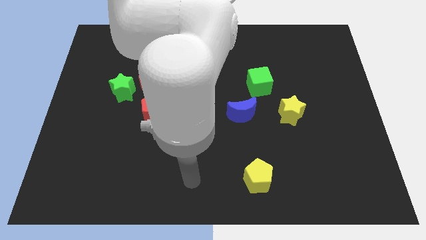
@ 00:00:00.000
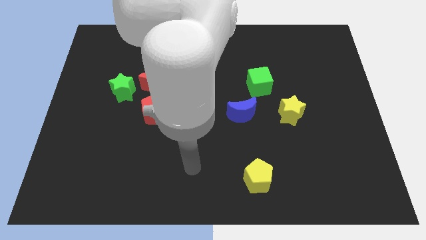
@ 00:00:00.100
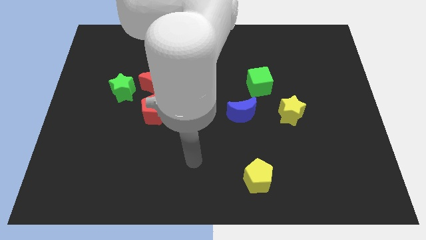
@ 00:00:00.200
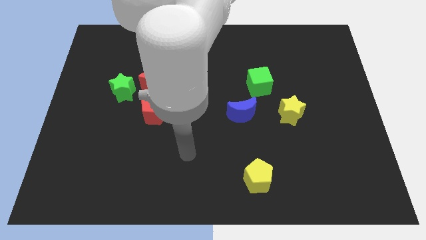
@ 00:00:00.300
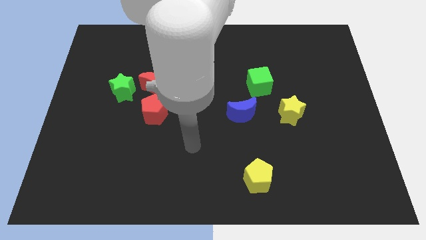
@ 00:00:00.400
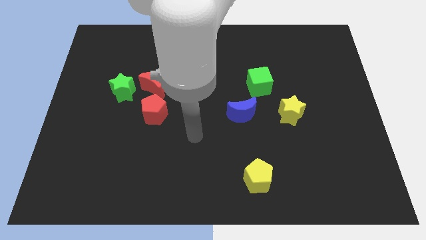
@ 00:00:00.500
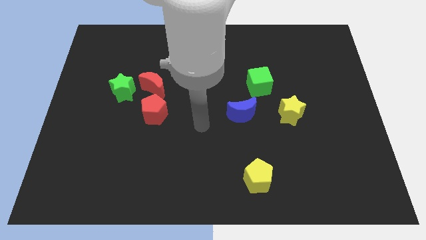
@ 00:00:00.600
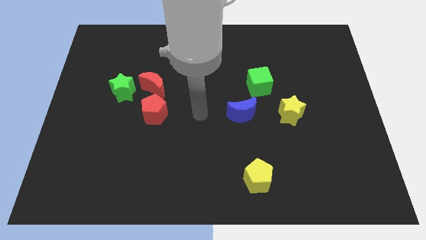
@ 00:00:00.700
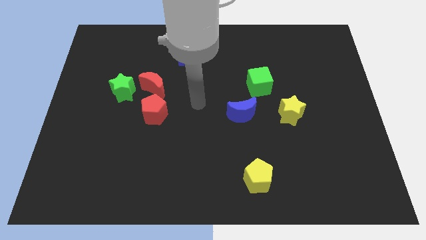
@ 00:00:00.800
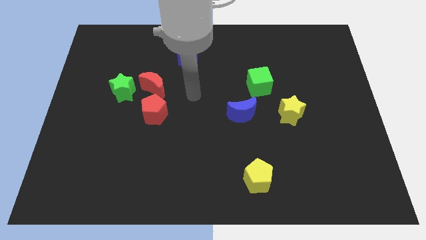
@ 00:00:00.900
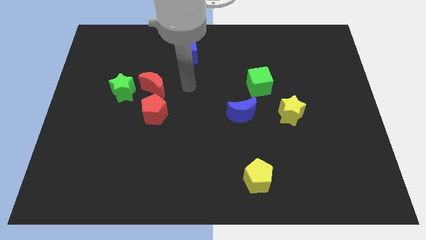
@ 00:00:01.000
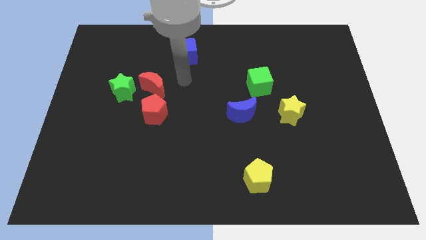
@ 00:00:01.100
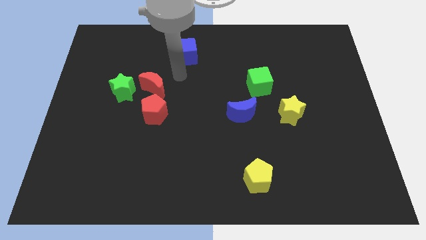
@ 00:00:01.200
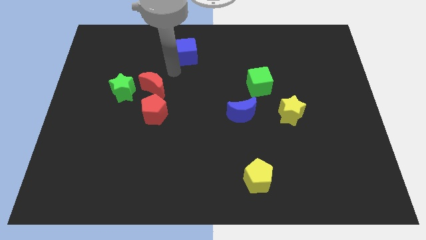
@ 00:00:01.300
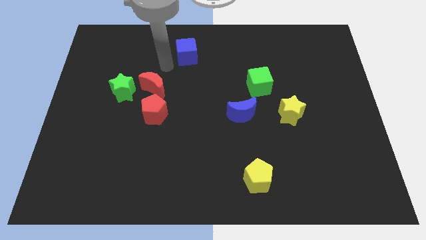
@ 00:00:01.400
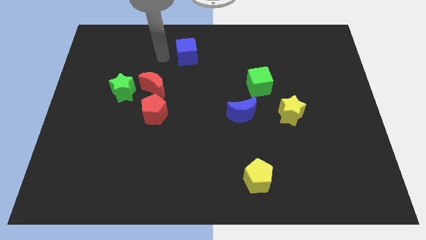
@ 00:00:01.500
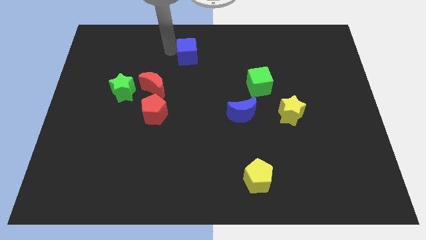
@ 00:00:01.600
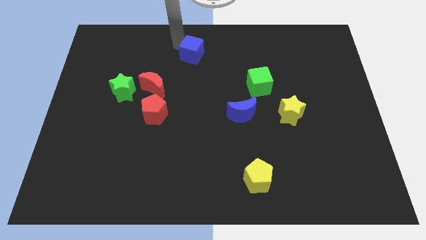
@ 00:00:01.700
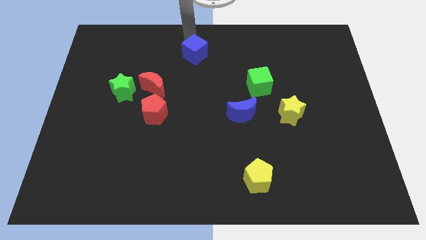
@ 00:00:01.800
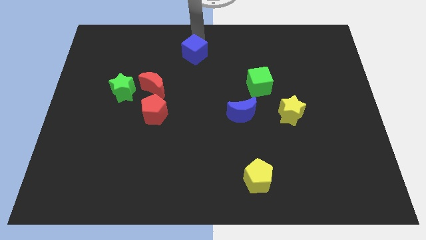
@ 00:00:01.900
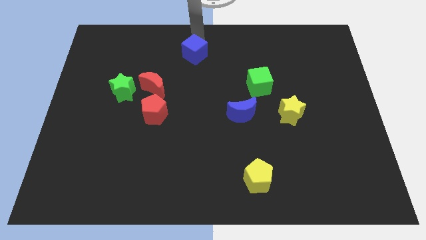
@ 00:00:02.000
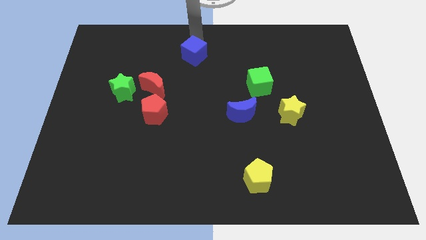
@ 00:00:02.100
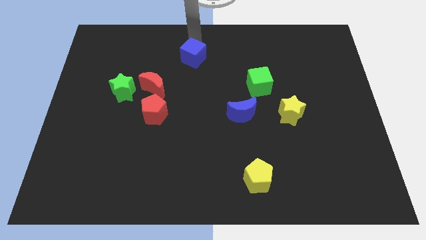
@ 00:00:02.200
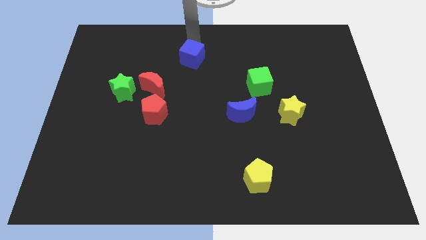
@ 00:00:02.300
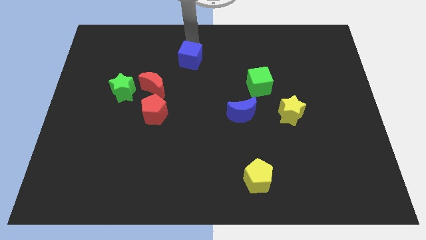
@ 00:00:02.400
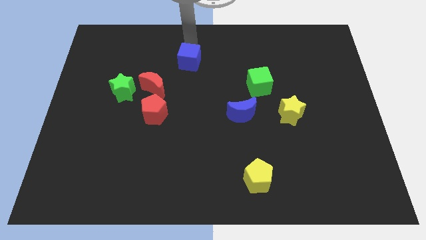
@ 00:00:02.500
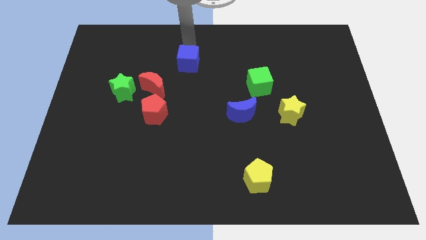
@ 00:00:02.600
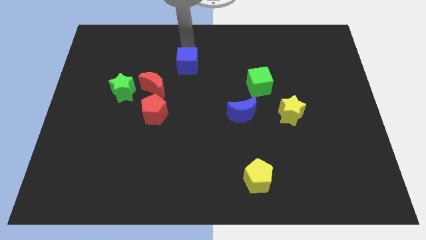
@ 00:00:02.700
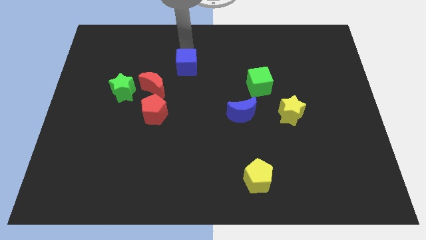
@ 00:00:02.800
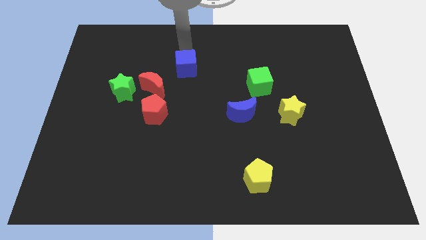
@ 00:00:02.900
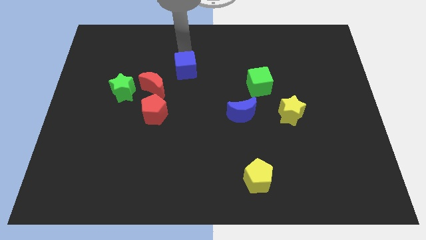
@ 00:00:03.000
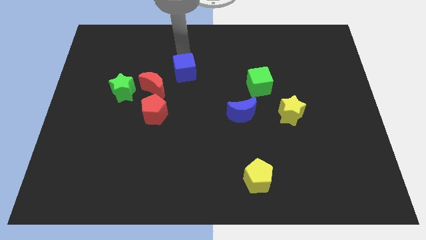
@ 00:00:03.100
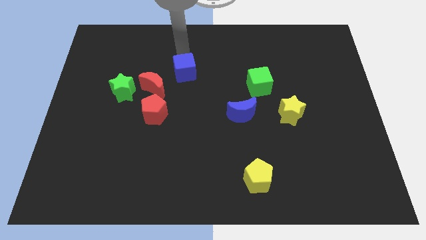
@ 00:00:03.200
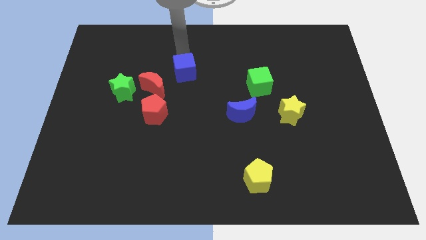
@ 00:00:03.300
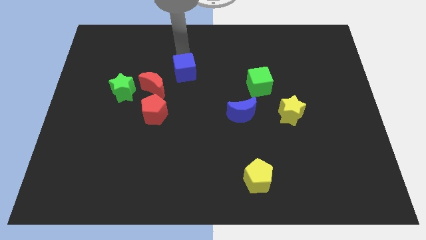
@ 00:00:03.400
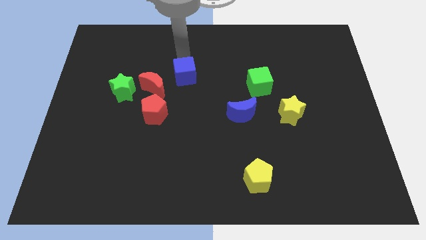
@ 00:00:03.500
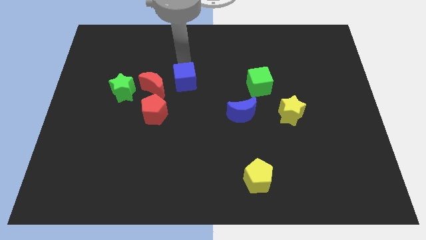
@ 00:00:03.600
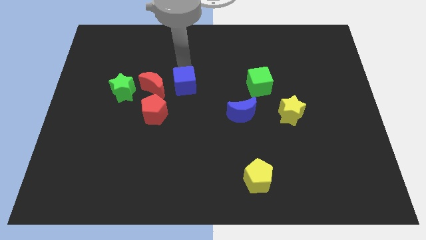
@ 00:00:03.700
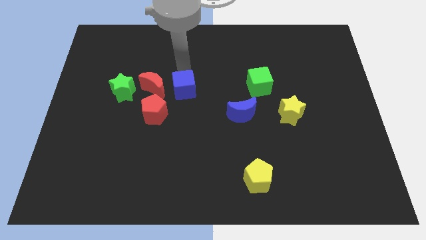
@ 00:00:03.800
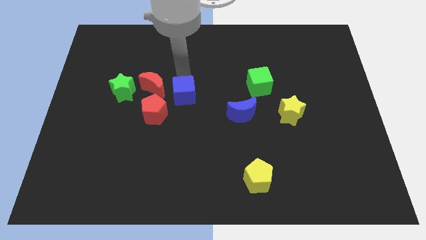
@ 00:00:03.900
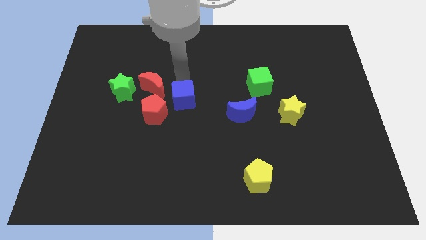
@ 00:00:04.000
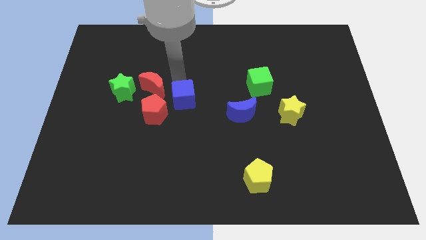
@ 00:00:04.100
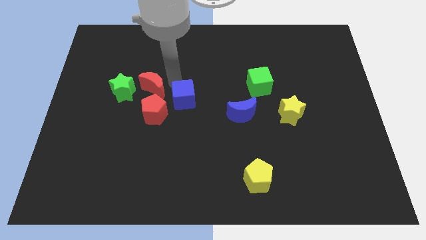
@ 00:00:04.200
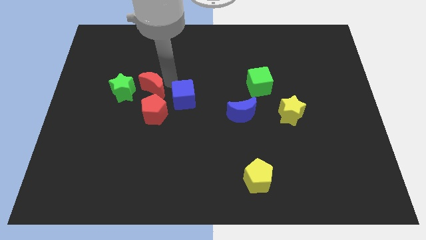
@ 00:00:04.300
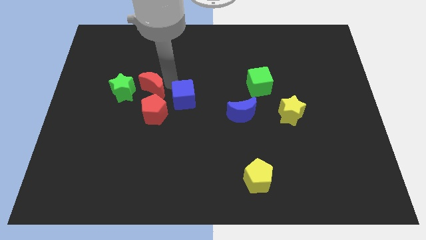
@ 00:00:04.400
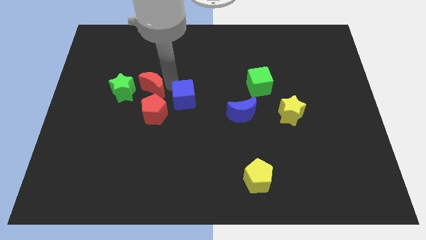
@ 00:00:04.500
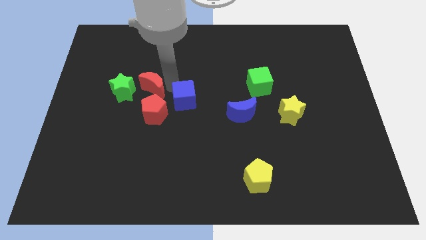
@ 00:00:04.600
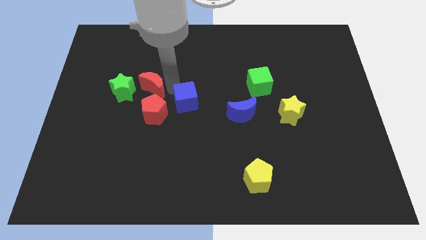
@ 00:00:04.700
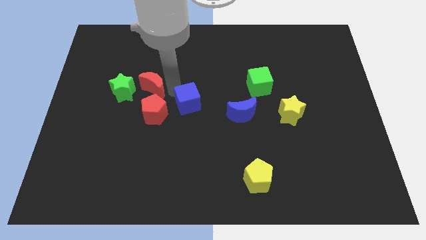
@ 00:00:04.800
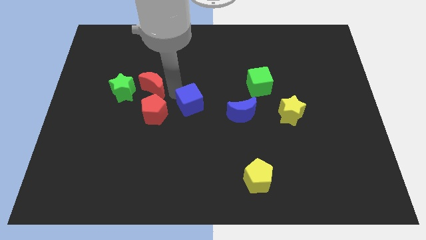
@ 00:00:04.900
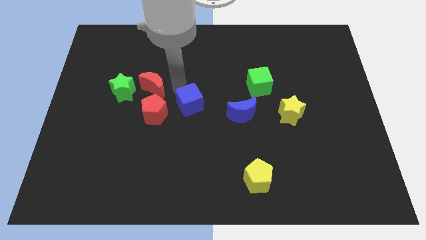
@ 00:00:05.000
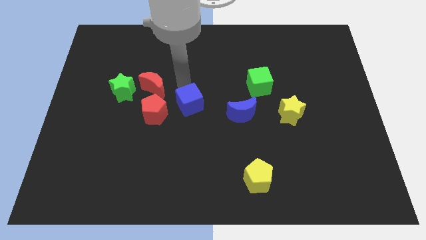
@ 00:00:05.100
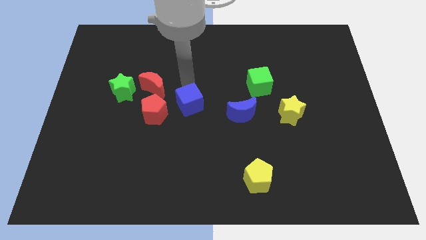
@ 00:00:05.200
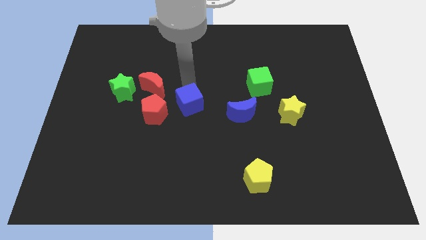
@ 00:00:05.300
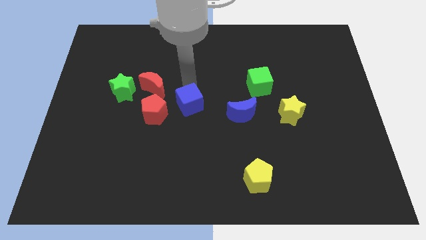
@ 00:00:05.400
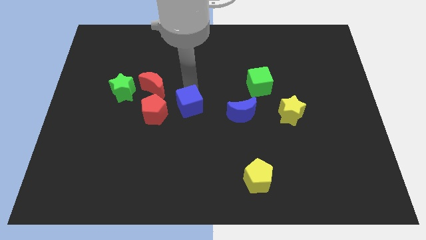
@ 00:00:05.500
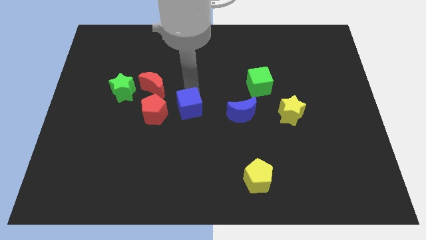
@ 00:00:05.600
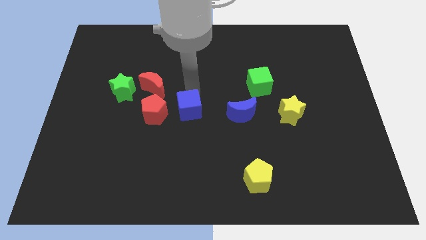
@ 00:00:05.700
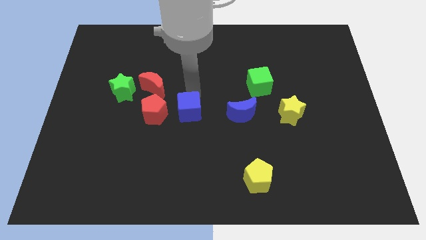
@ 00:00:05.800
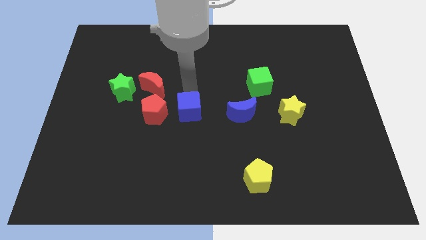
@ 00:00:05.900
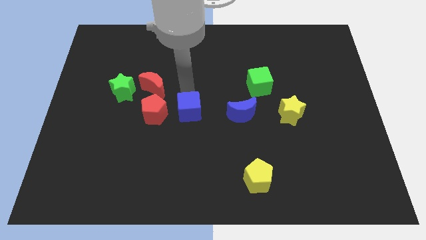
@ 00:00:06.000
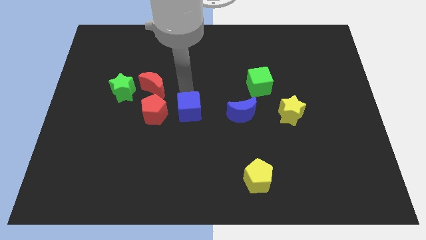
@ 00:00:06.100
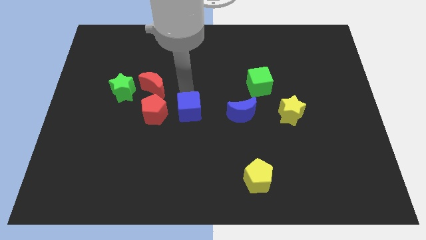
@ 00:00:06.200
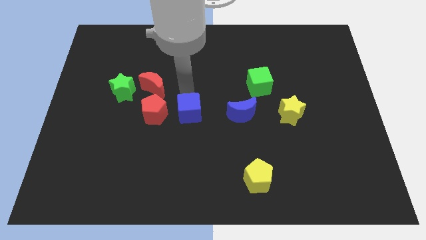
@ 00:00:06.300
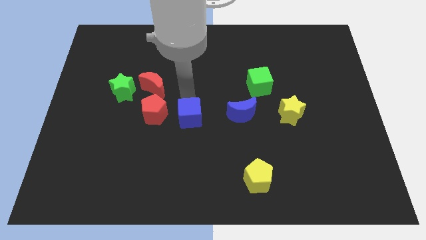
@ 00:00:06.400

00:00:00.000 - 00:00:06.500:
move the blue cube down

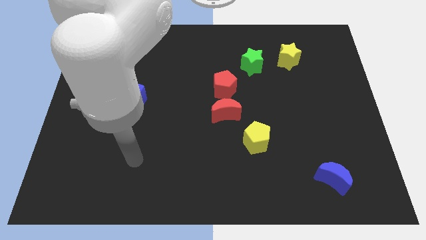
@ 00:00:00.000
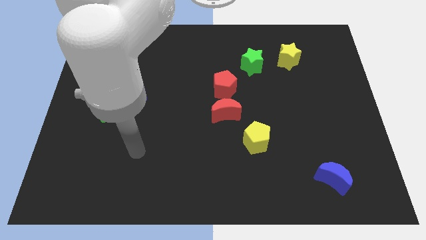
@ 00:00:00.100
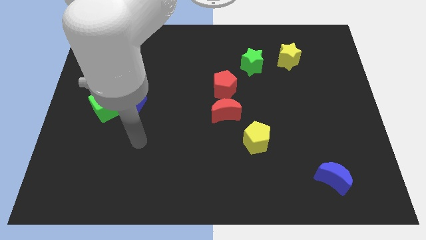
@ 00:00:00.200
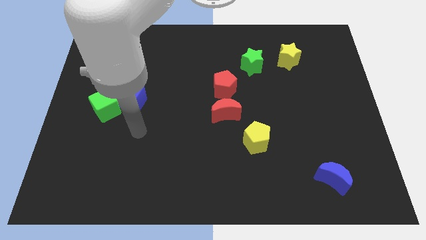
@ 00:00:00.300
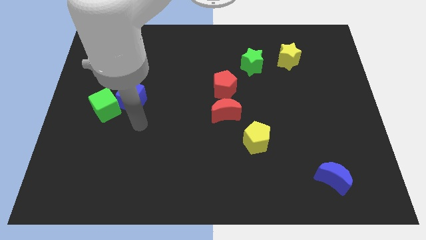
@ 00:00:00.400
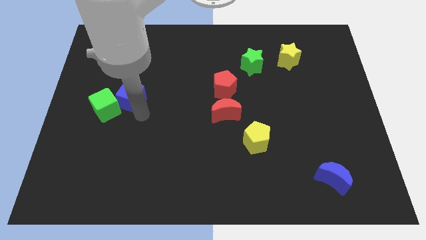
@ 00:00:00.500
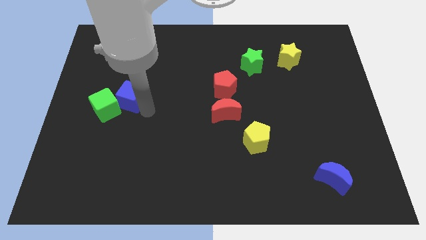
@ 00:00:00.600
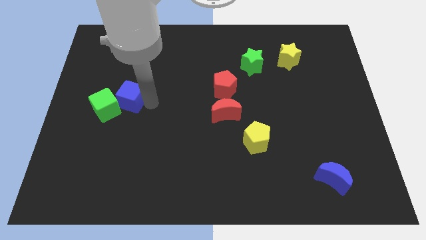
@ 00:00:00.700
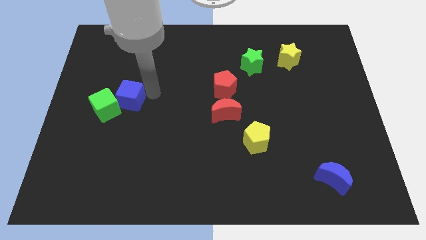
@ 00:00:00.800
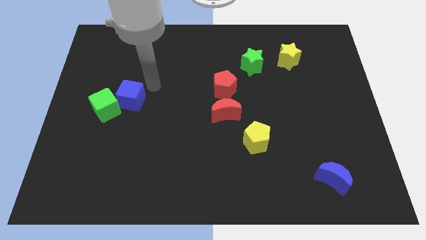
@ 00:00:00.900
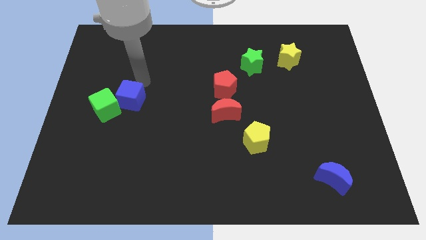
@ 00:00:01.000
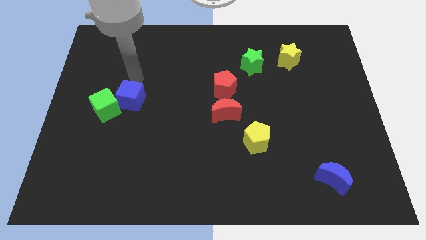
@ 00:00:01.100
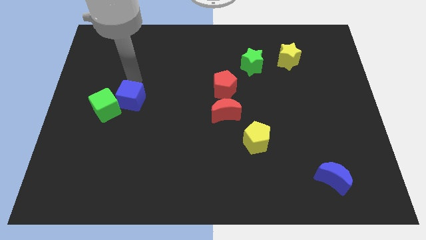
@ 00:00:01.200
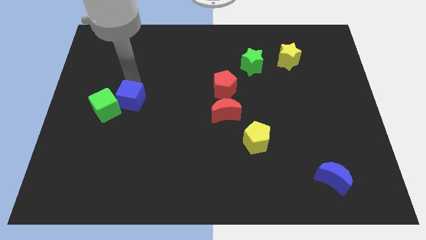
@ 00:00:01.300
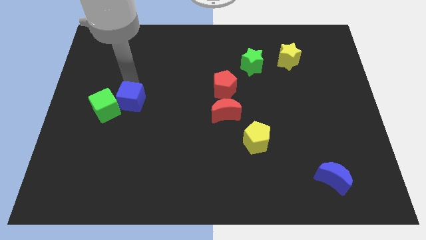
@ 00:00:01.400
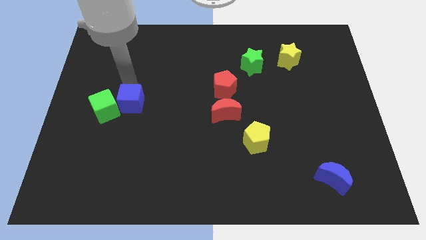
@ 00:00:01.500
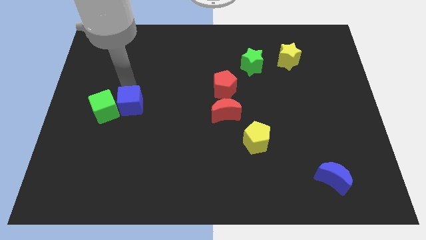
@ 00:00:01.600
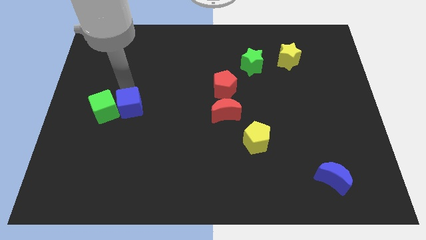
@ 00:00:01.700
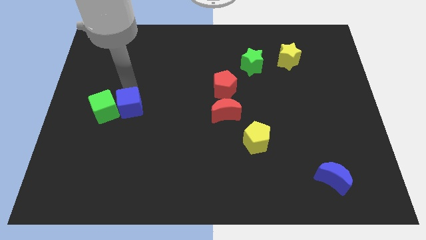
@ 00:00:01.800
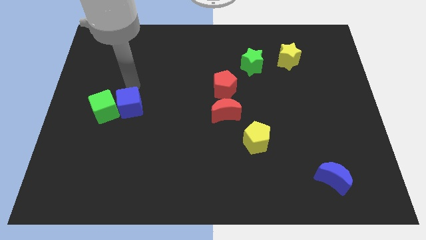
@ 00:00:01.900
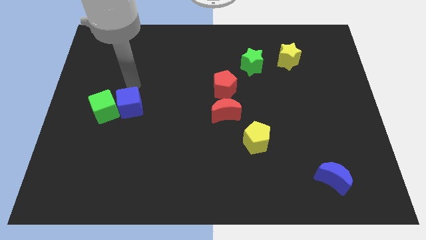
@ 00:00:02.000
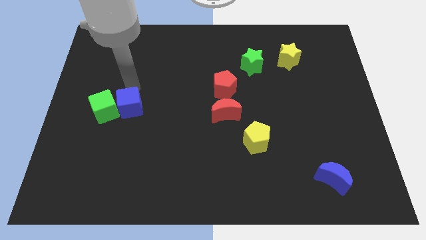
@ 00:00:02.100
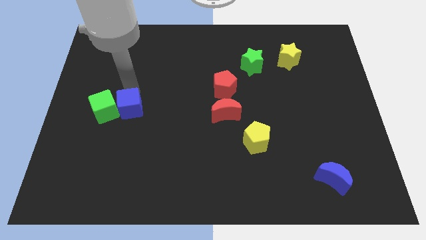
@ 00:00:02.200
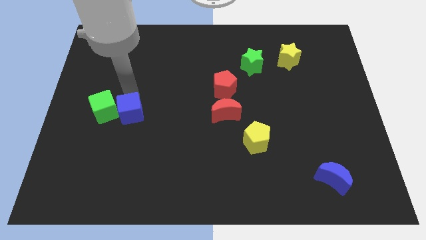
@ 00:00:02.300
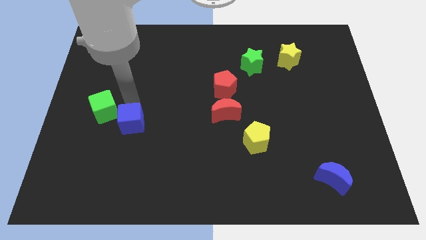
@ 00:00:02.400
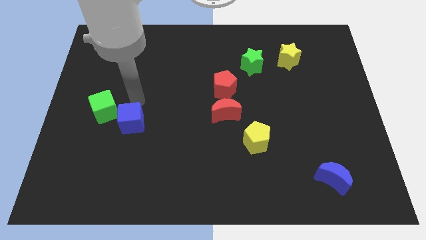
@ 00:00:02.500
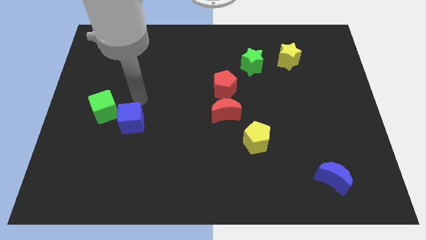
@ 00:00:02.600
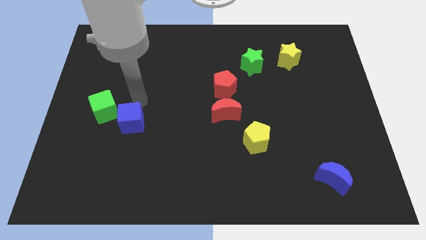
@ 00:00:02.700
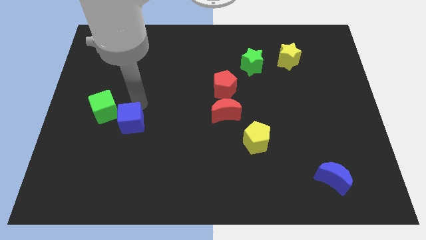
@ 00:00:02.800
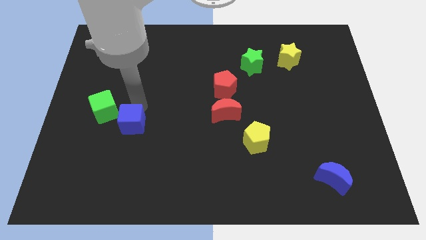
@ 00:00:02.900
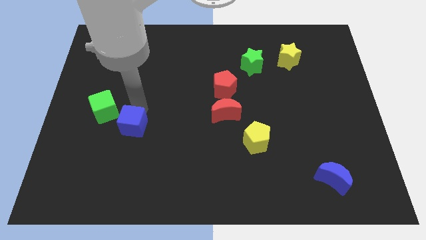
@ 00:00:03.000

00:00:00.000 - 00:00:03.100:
push the blue cube down a bit
